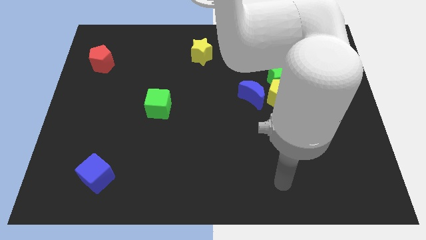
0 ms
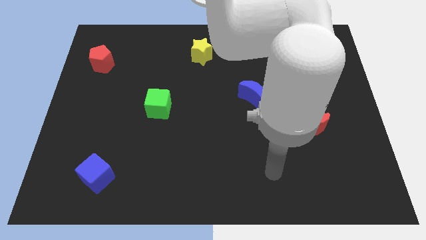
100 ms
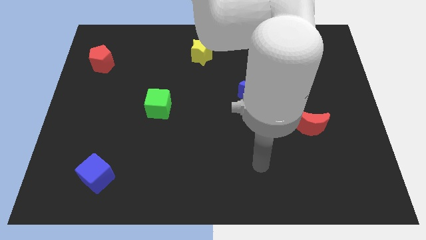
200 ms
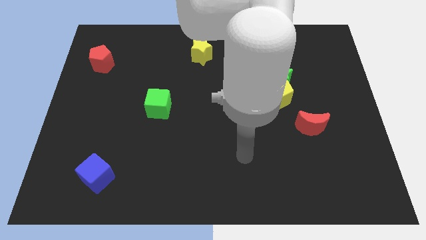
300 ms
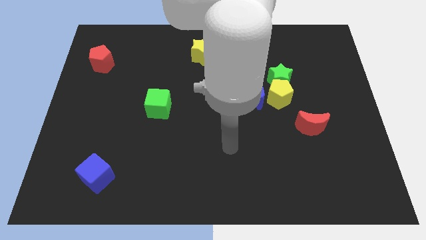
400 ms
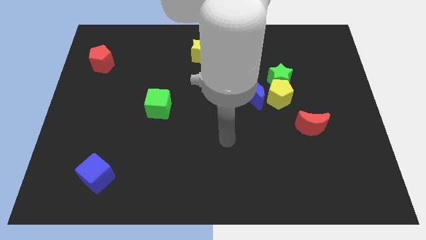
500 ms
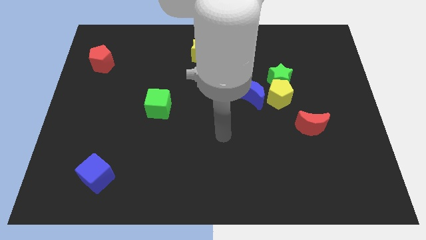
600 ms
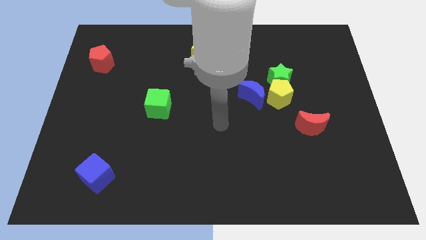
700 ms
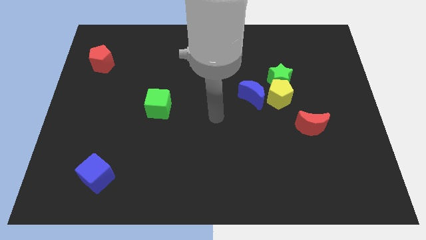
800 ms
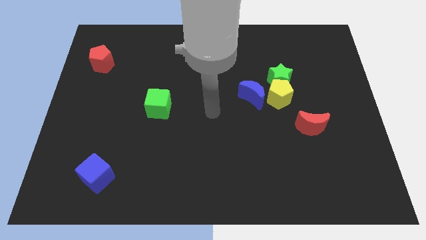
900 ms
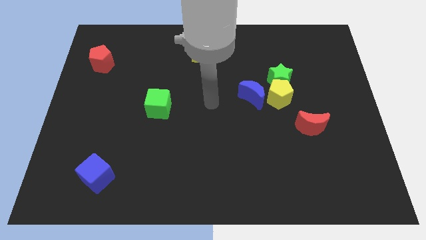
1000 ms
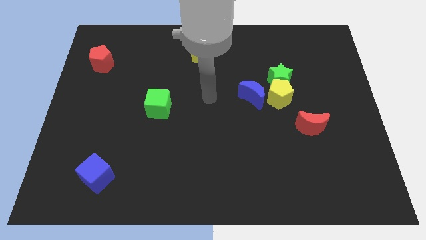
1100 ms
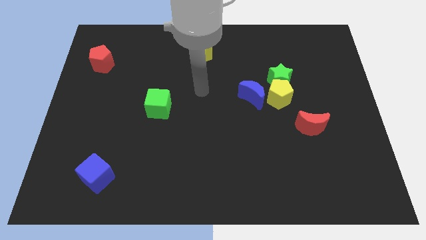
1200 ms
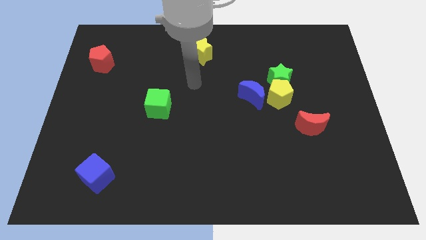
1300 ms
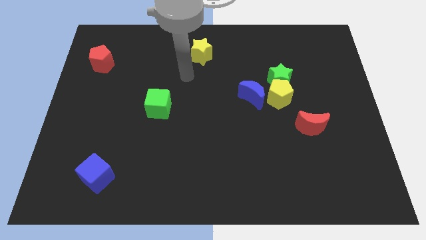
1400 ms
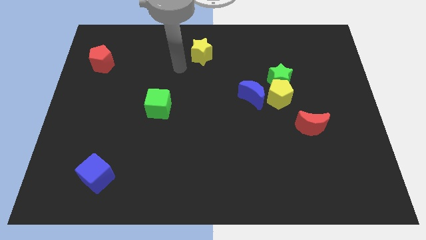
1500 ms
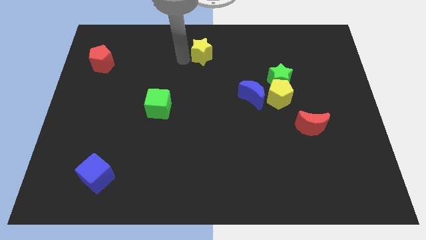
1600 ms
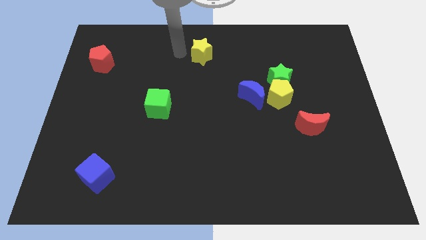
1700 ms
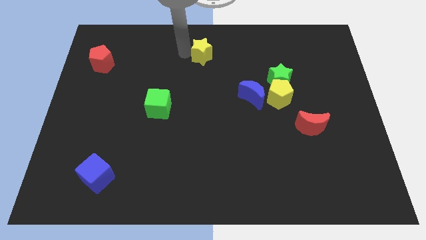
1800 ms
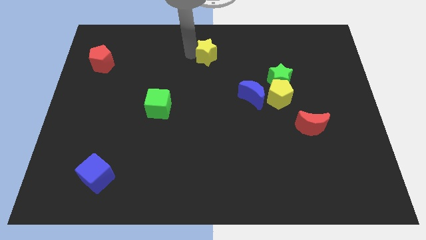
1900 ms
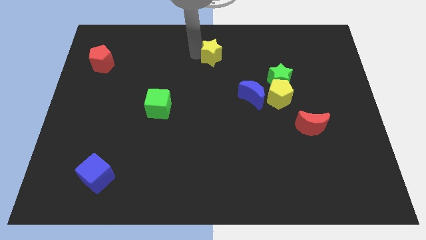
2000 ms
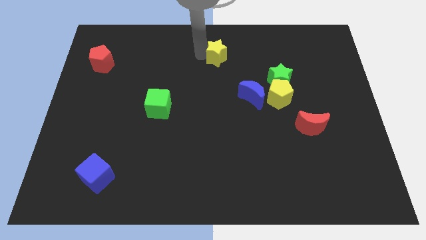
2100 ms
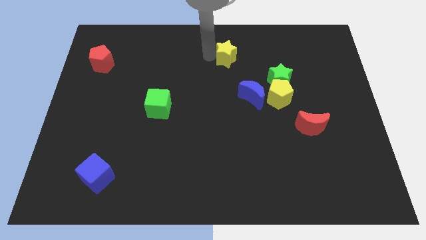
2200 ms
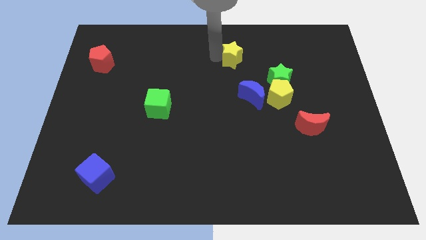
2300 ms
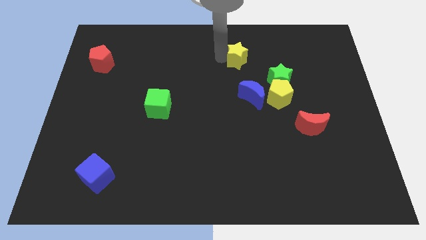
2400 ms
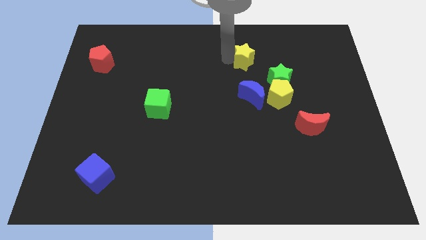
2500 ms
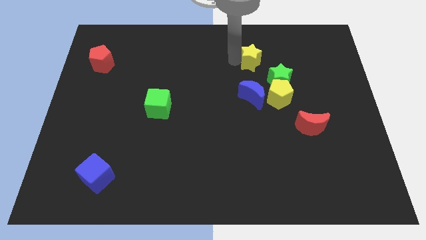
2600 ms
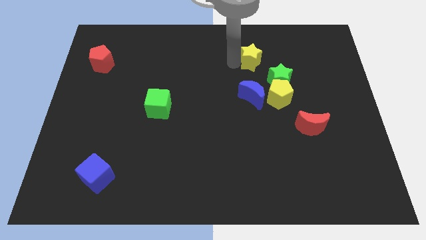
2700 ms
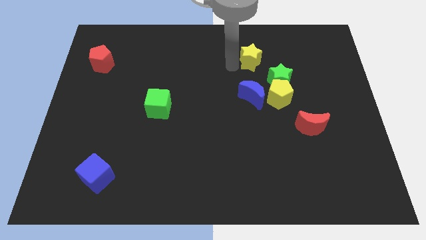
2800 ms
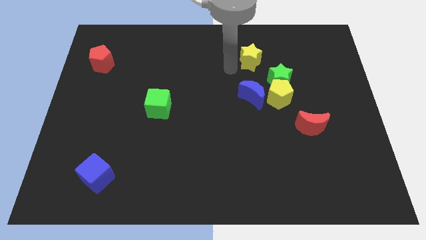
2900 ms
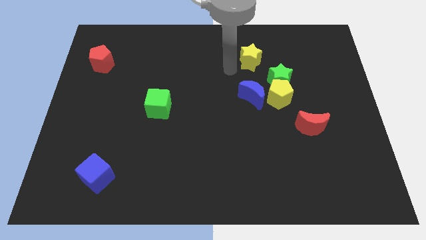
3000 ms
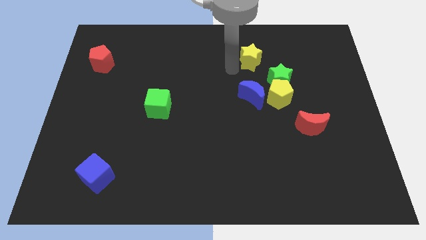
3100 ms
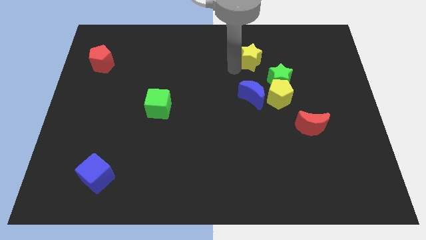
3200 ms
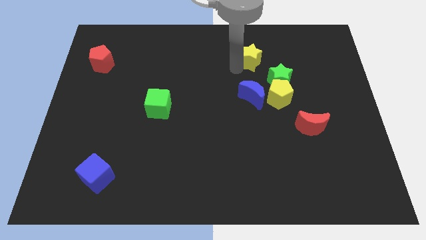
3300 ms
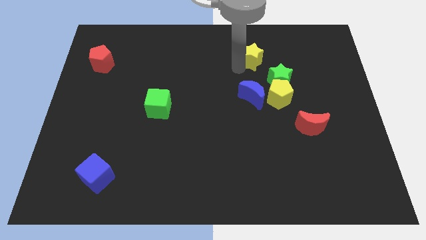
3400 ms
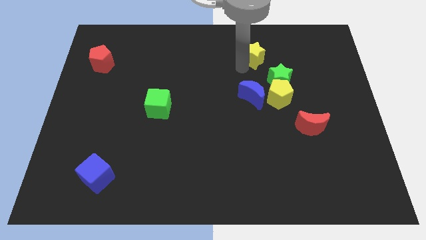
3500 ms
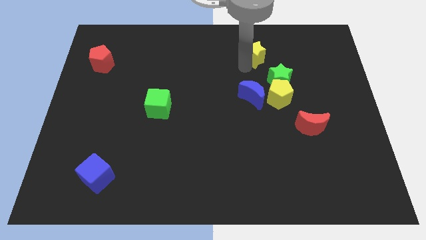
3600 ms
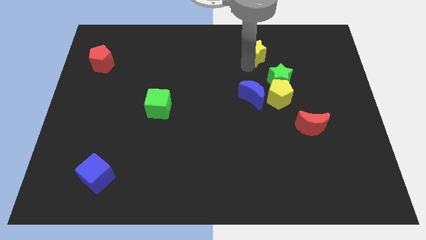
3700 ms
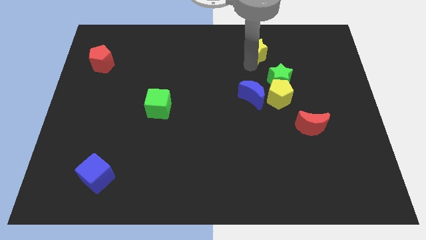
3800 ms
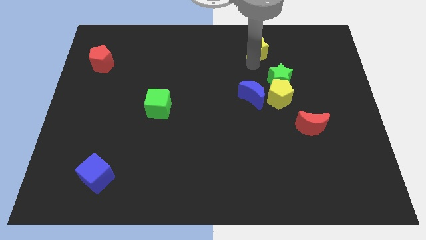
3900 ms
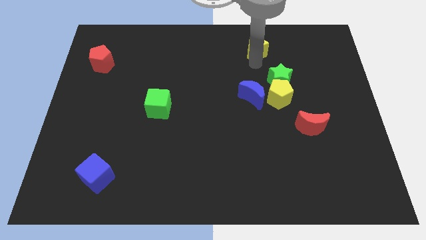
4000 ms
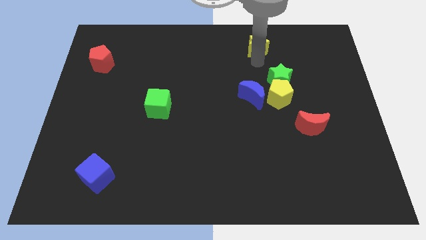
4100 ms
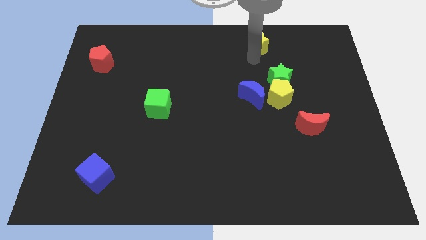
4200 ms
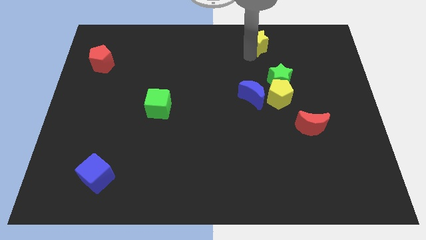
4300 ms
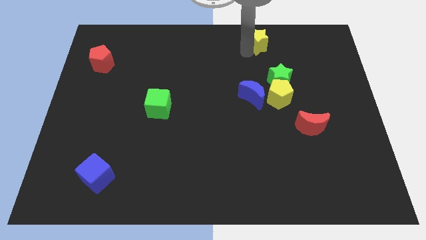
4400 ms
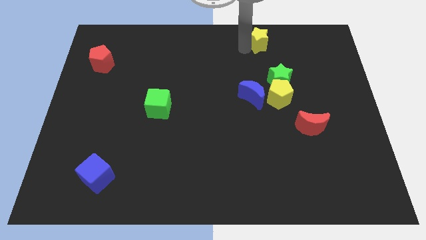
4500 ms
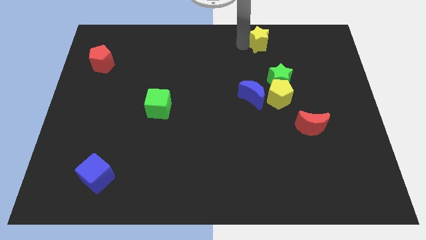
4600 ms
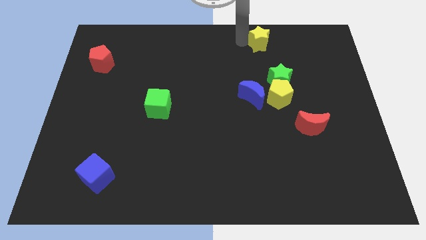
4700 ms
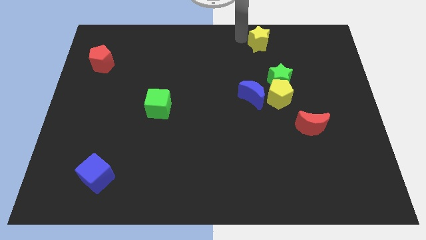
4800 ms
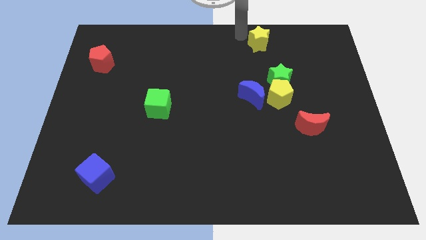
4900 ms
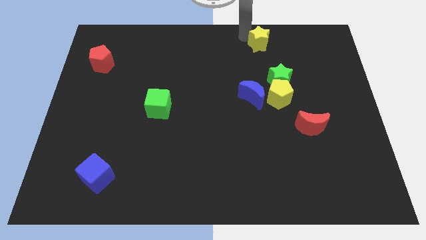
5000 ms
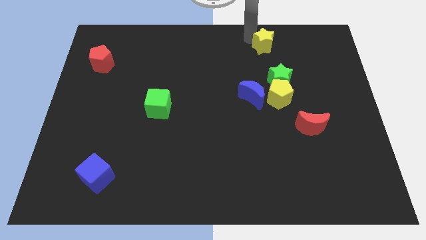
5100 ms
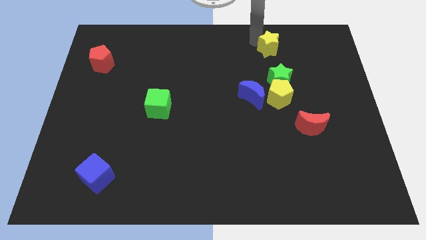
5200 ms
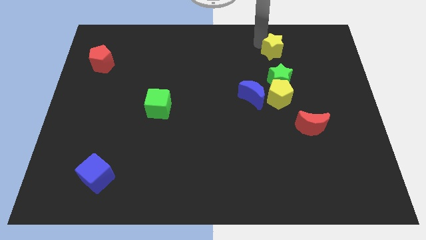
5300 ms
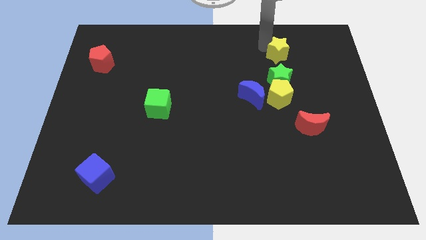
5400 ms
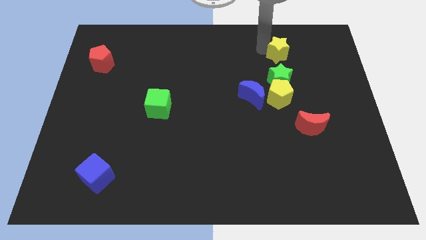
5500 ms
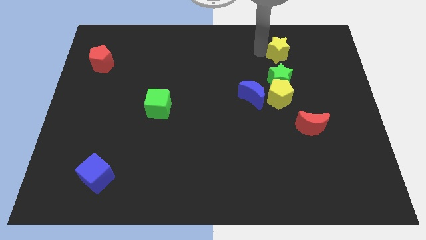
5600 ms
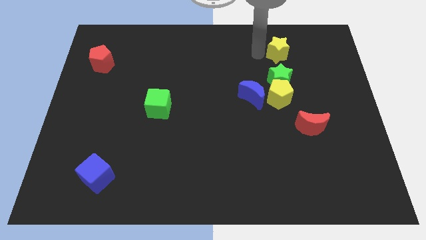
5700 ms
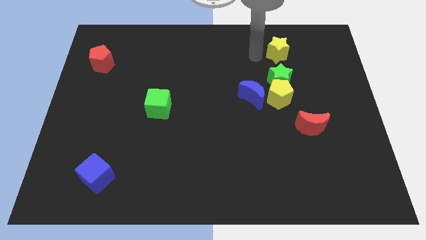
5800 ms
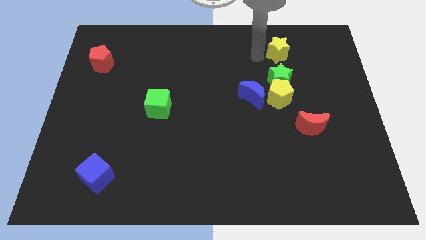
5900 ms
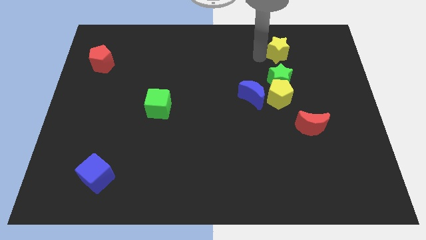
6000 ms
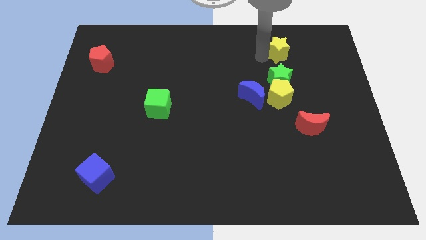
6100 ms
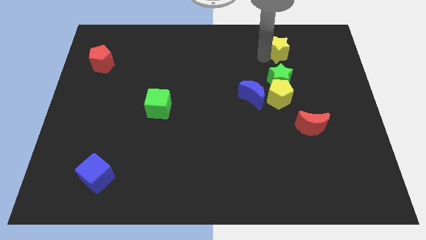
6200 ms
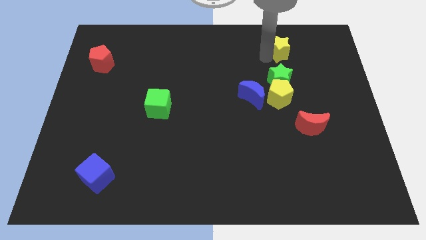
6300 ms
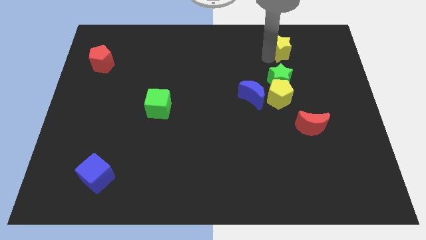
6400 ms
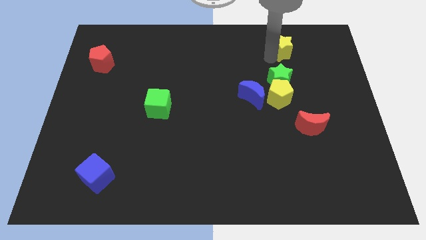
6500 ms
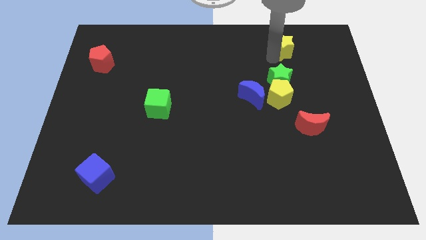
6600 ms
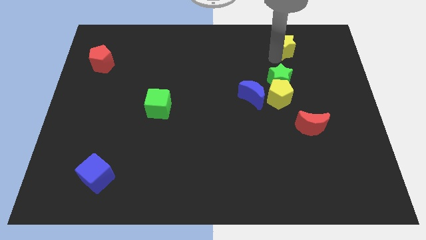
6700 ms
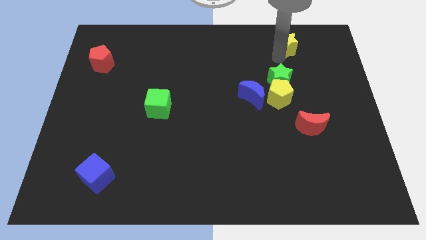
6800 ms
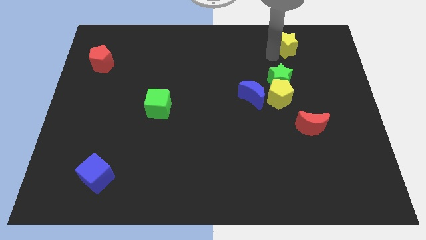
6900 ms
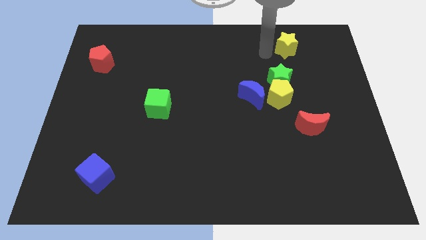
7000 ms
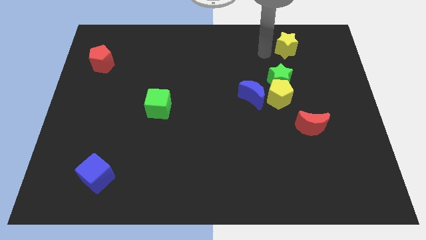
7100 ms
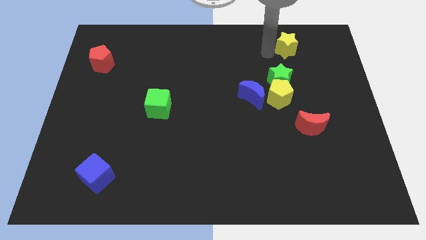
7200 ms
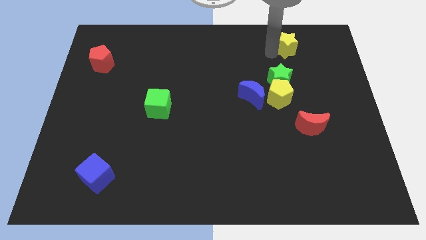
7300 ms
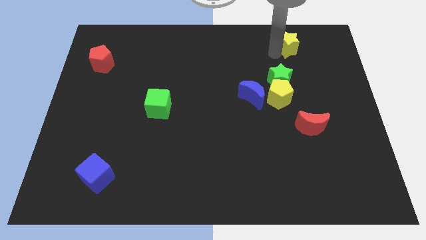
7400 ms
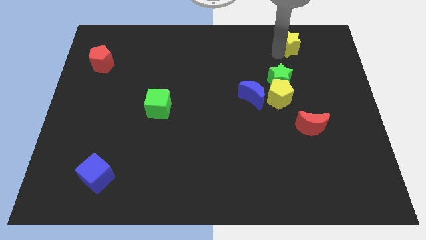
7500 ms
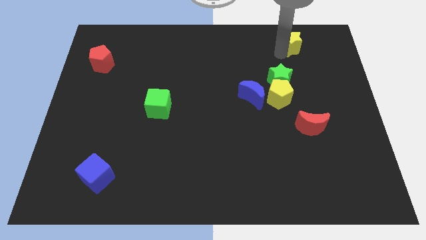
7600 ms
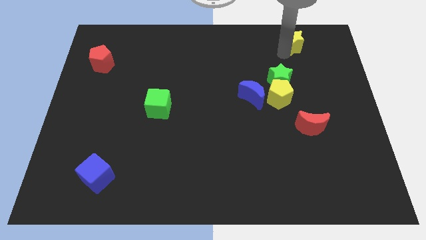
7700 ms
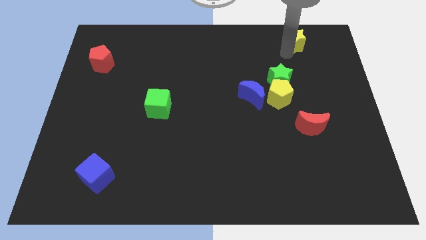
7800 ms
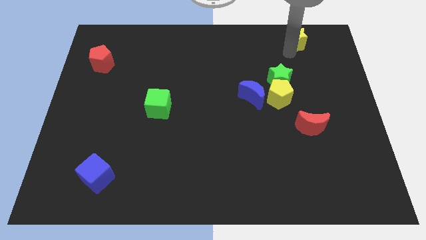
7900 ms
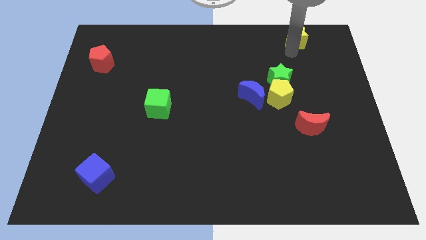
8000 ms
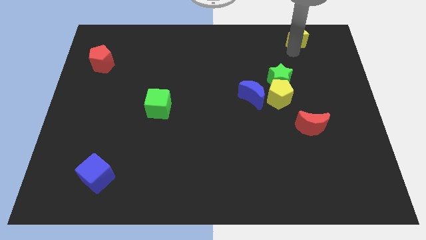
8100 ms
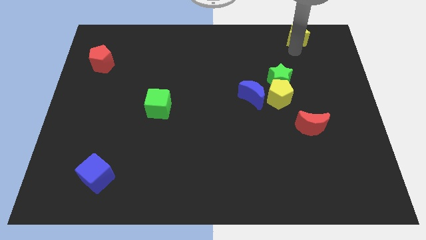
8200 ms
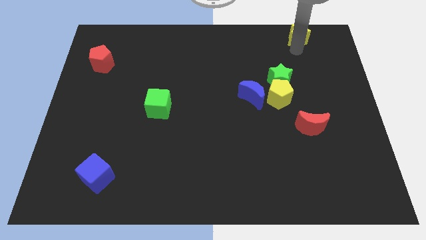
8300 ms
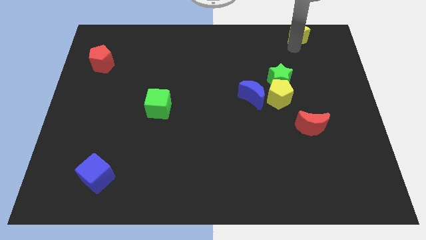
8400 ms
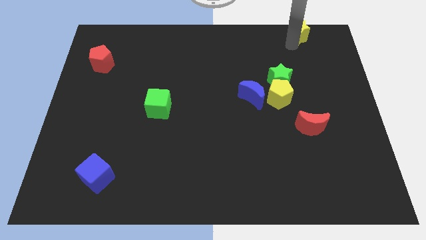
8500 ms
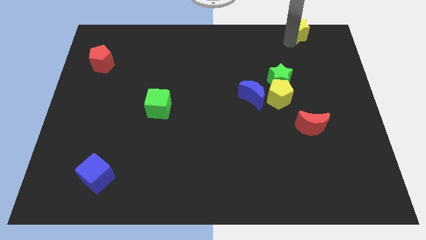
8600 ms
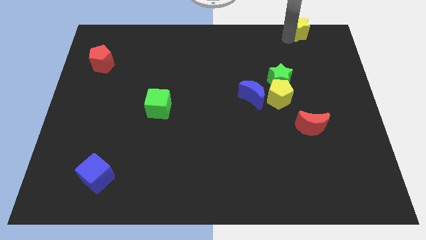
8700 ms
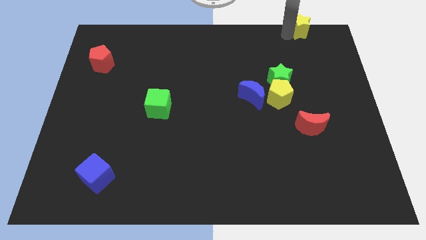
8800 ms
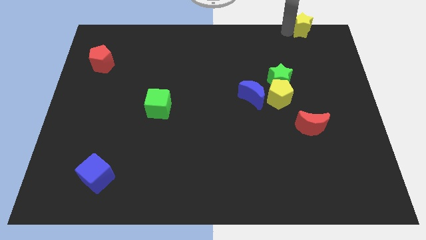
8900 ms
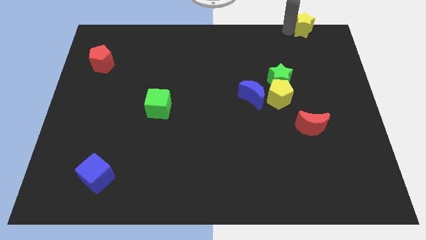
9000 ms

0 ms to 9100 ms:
push the yellow star to the top right
